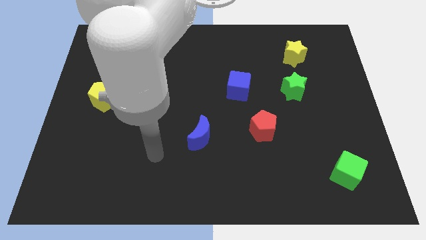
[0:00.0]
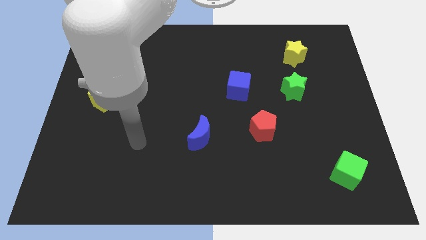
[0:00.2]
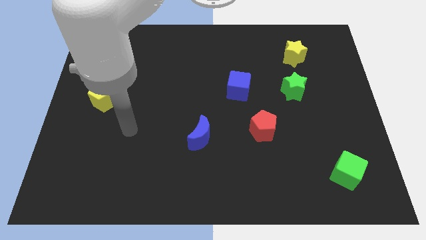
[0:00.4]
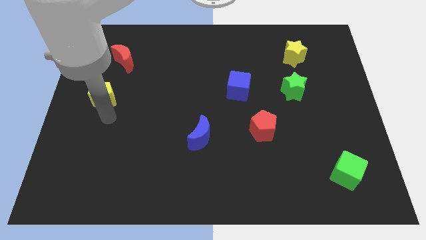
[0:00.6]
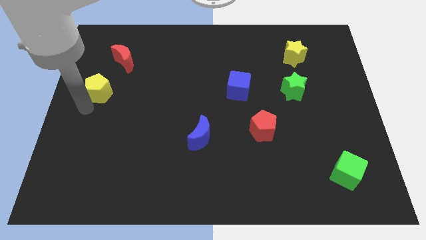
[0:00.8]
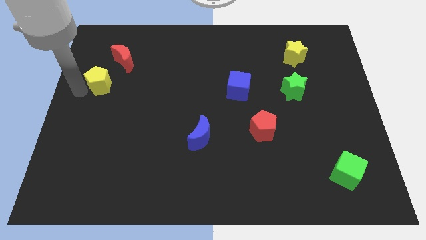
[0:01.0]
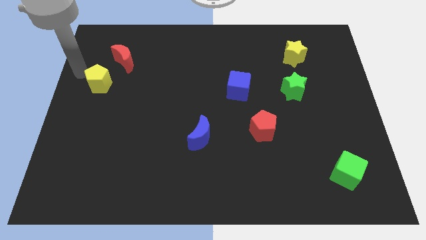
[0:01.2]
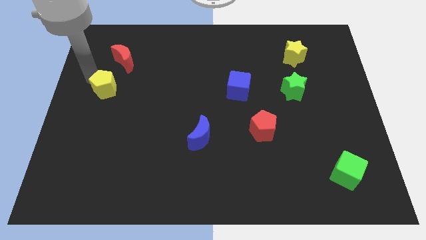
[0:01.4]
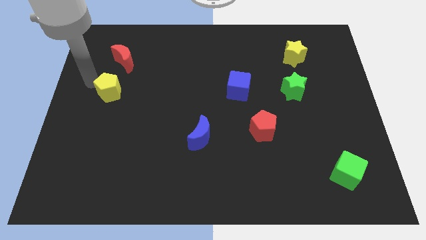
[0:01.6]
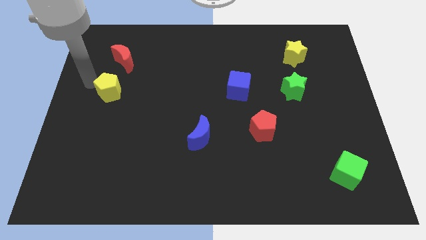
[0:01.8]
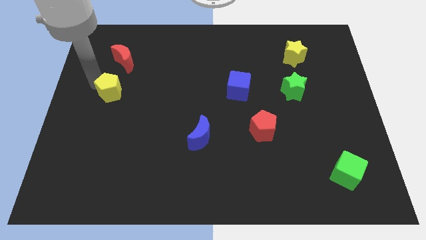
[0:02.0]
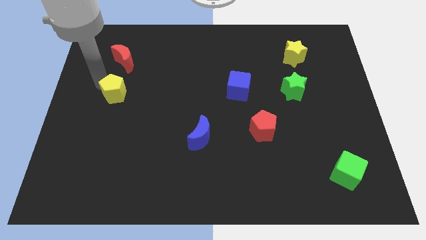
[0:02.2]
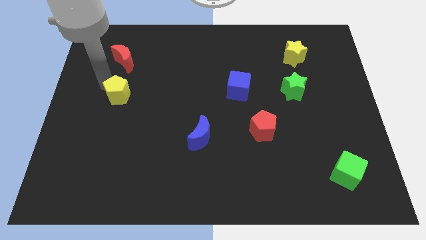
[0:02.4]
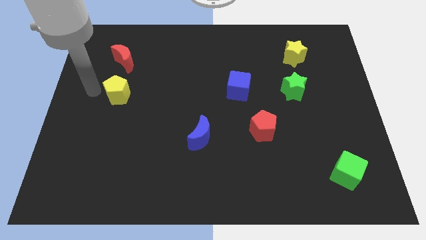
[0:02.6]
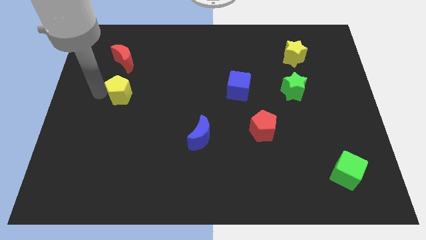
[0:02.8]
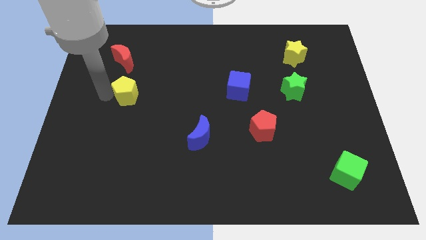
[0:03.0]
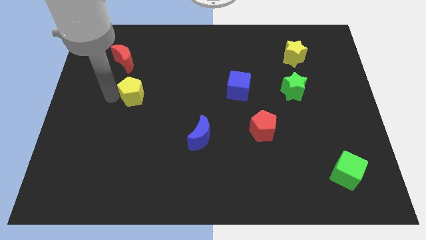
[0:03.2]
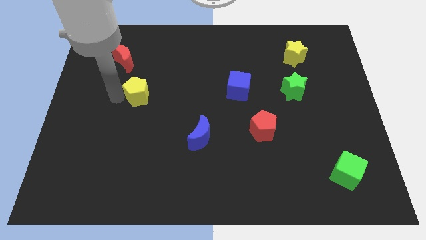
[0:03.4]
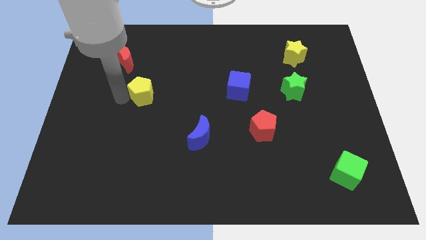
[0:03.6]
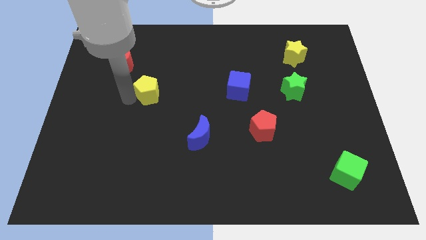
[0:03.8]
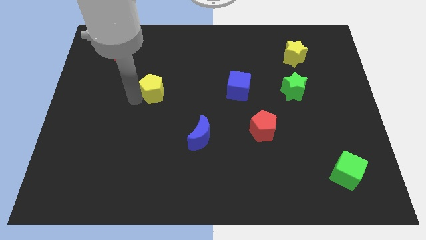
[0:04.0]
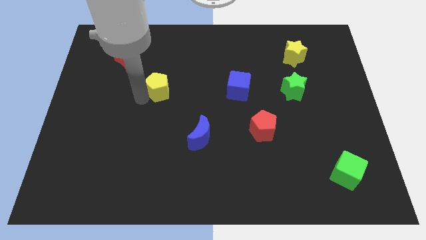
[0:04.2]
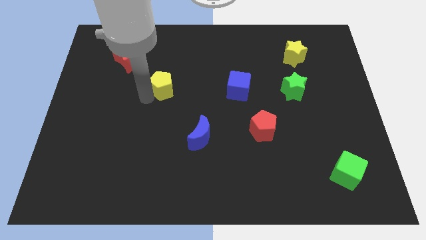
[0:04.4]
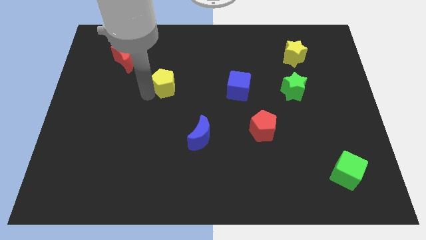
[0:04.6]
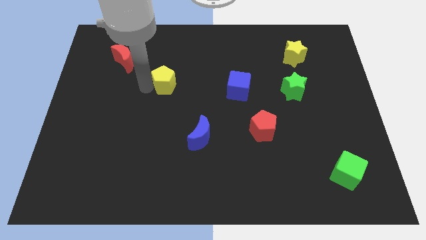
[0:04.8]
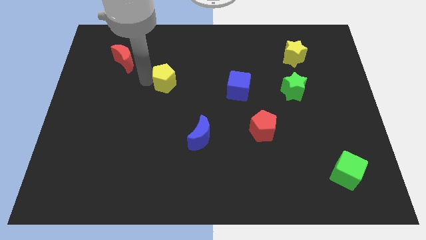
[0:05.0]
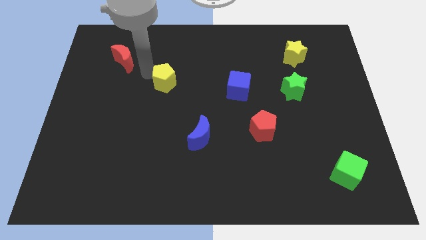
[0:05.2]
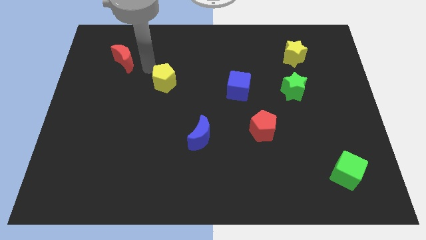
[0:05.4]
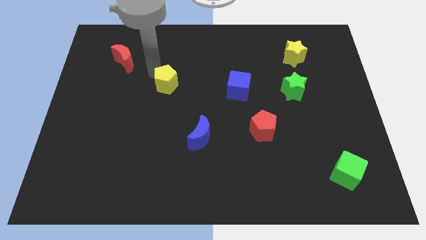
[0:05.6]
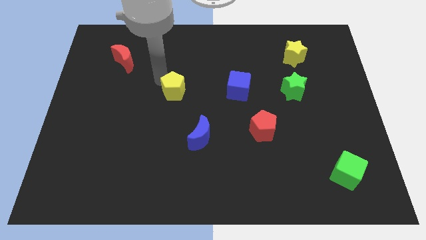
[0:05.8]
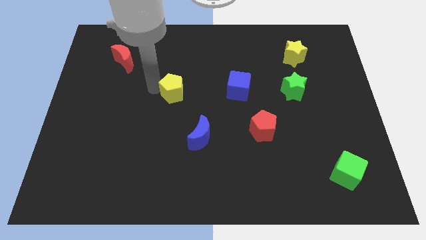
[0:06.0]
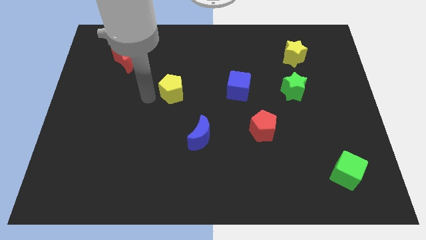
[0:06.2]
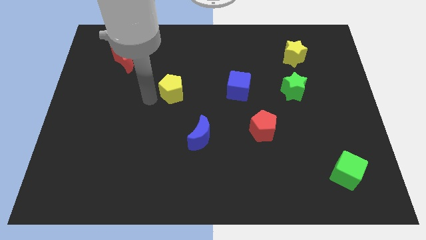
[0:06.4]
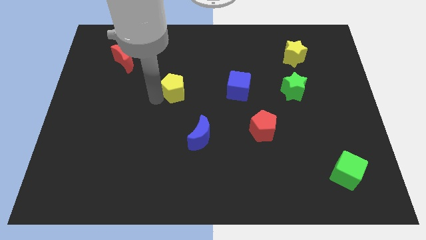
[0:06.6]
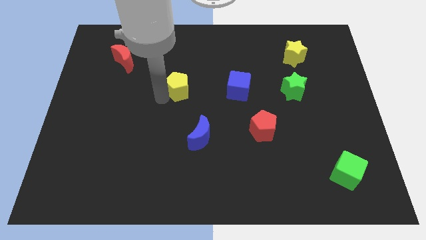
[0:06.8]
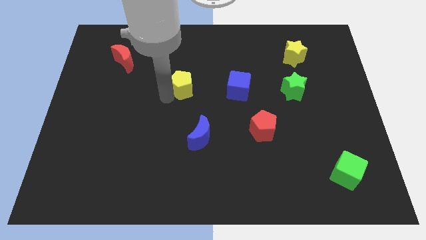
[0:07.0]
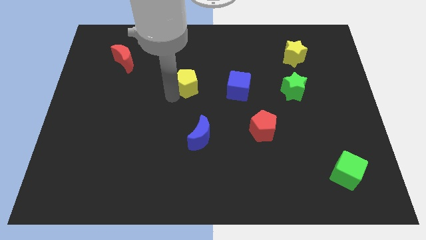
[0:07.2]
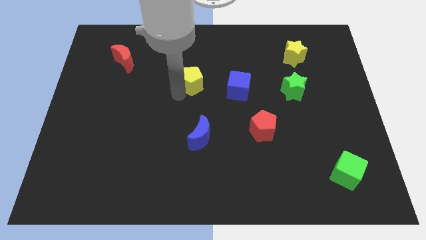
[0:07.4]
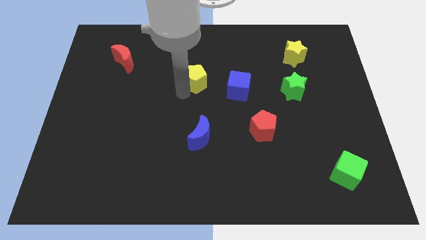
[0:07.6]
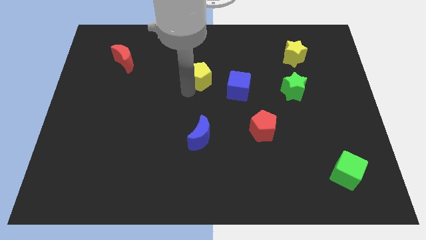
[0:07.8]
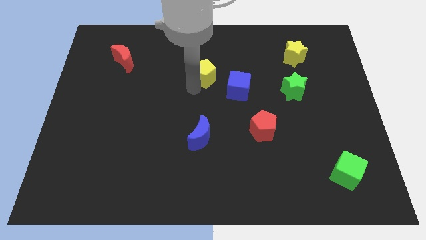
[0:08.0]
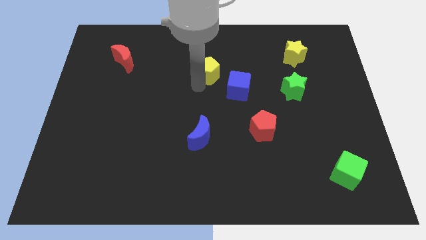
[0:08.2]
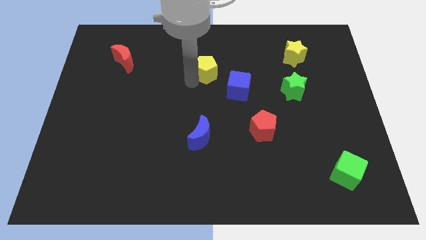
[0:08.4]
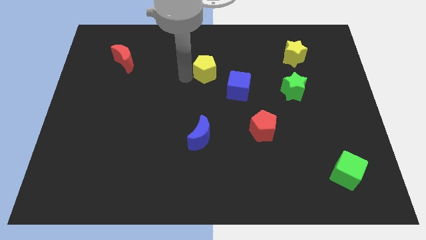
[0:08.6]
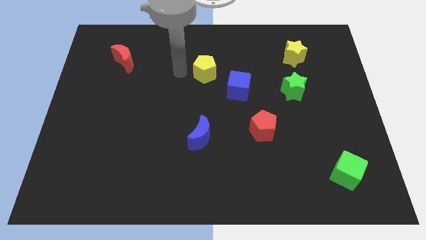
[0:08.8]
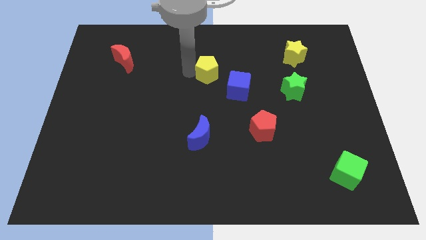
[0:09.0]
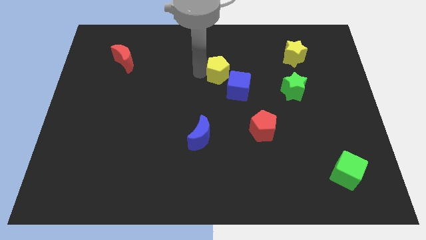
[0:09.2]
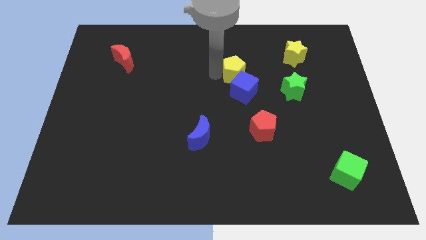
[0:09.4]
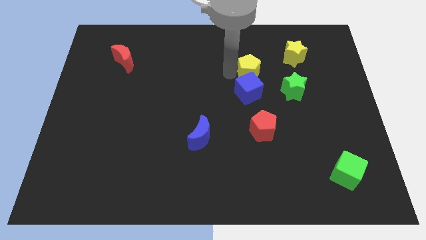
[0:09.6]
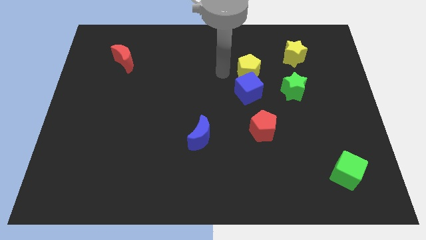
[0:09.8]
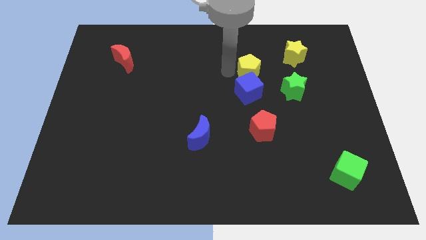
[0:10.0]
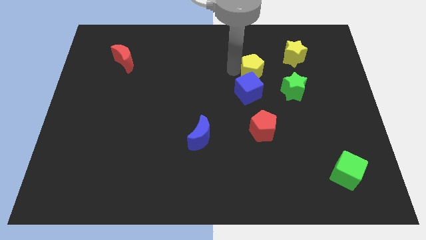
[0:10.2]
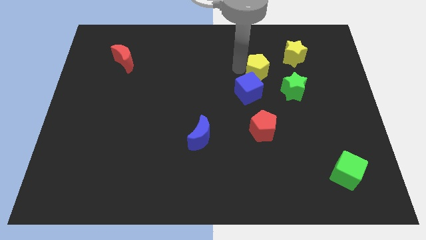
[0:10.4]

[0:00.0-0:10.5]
move the yellow pentagon to the bottom left side of the yellow star

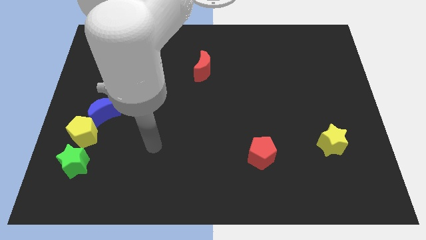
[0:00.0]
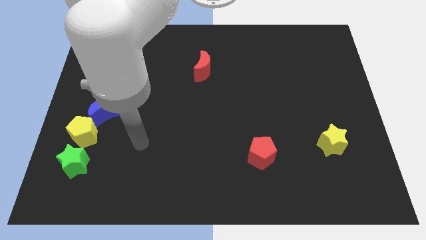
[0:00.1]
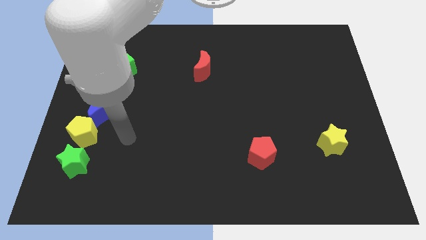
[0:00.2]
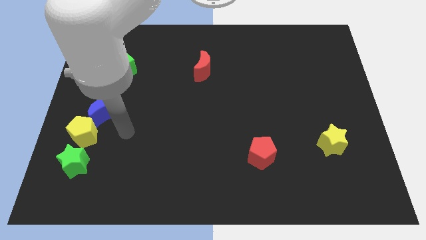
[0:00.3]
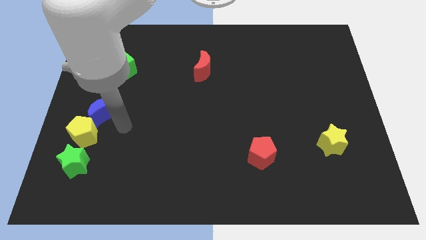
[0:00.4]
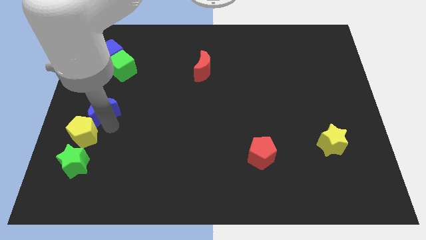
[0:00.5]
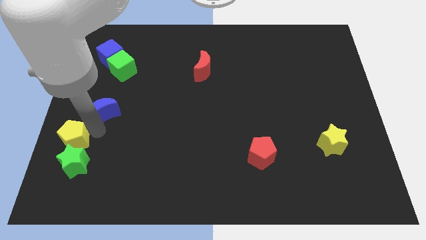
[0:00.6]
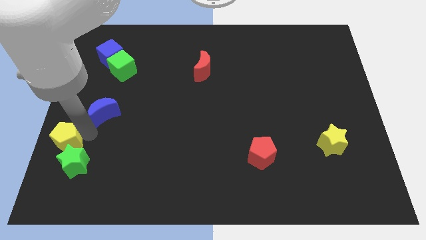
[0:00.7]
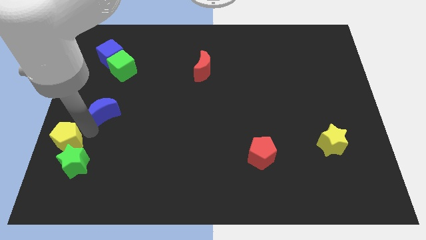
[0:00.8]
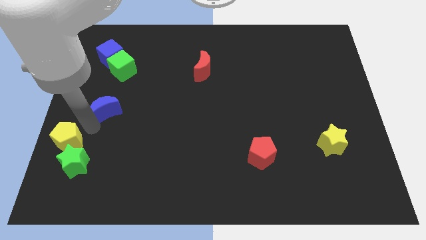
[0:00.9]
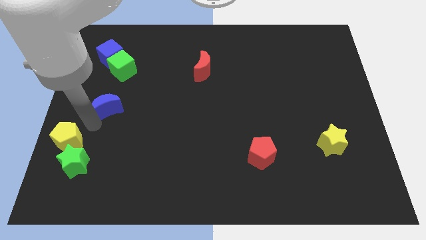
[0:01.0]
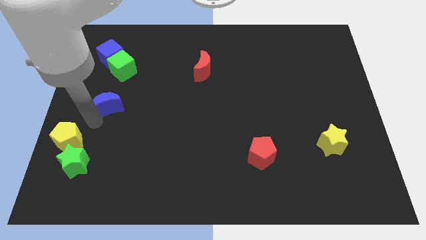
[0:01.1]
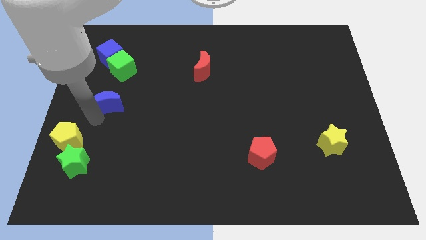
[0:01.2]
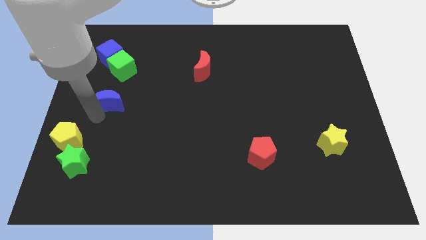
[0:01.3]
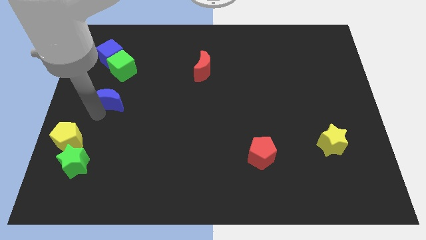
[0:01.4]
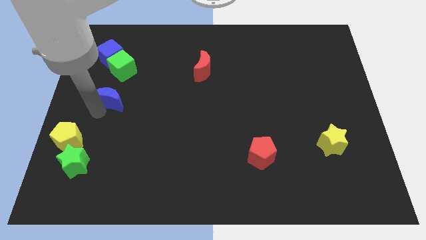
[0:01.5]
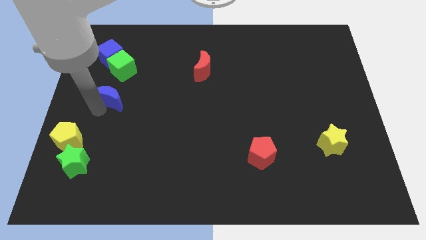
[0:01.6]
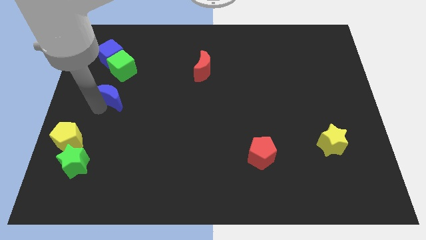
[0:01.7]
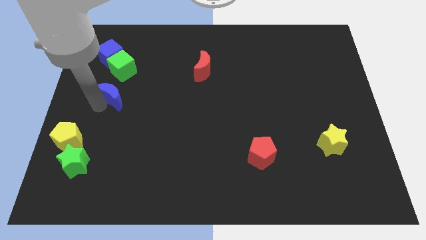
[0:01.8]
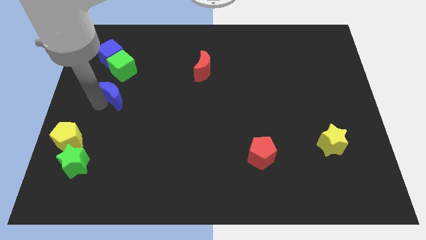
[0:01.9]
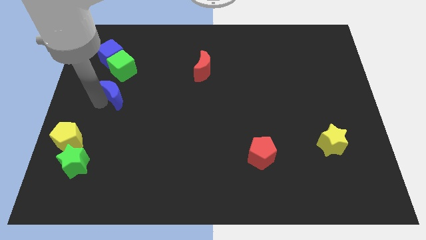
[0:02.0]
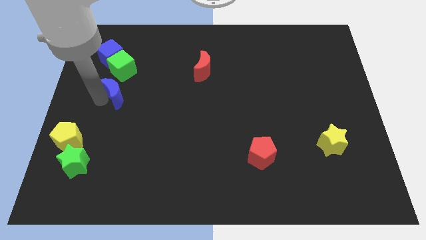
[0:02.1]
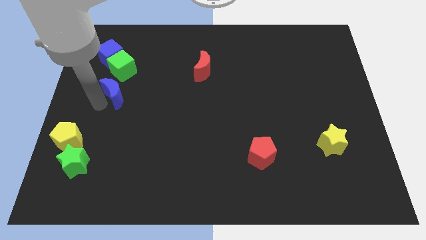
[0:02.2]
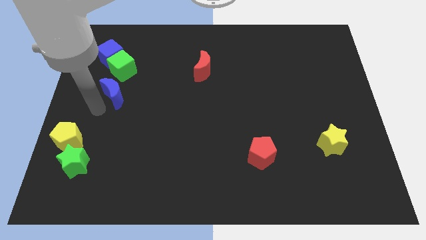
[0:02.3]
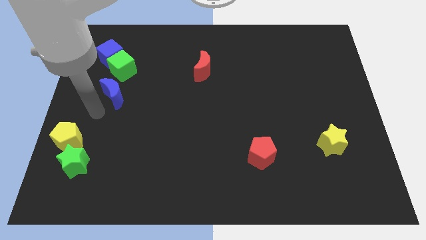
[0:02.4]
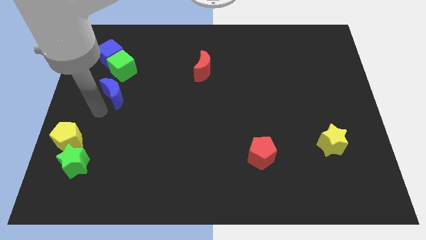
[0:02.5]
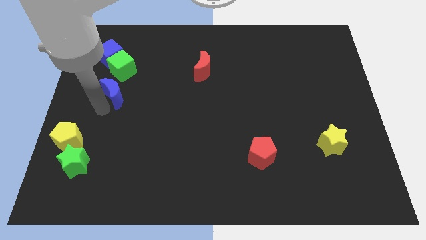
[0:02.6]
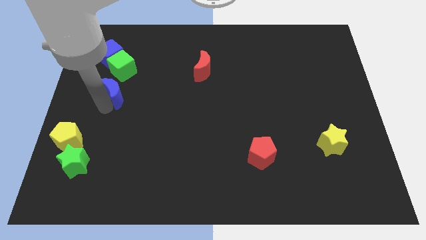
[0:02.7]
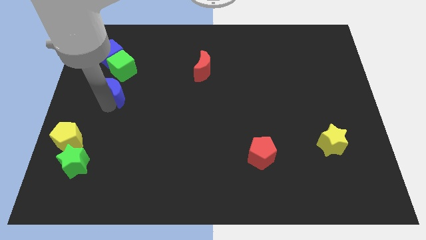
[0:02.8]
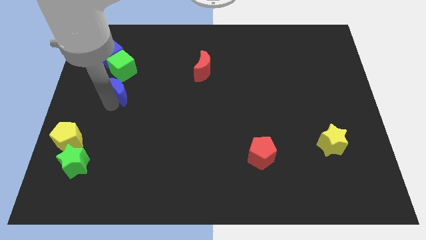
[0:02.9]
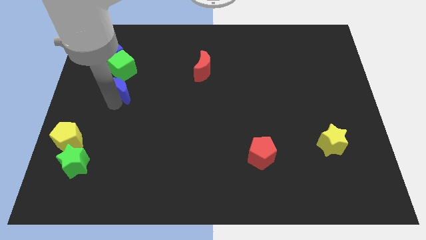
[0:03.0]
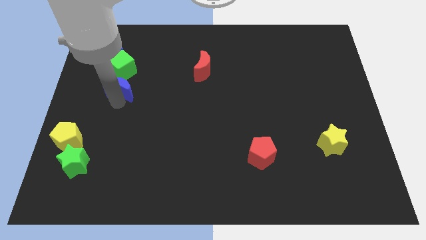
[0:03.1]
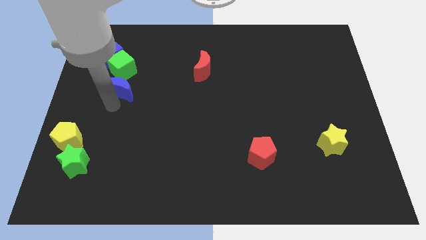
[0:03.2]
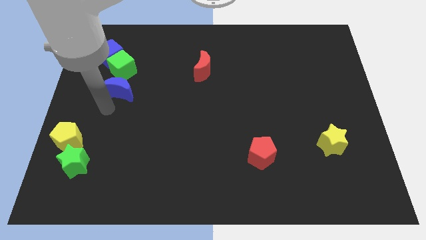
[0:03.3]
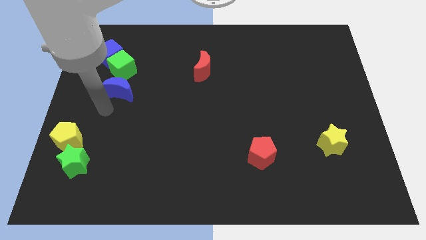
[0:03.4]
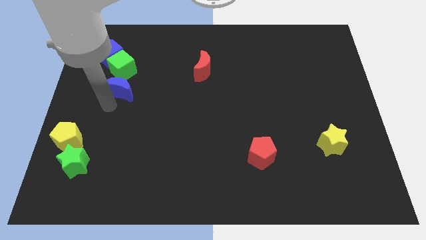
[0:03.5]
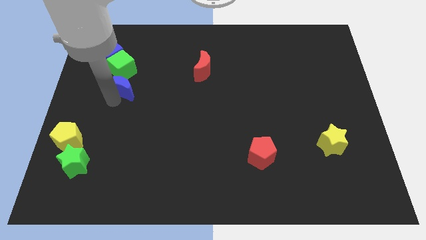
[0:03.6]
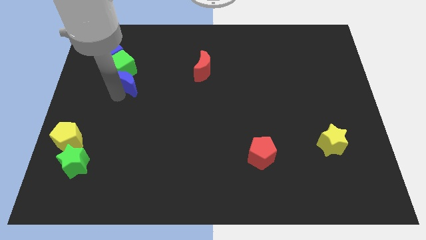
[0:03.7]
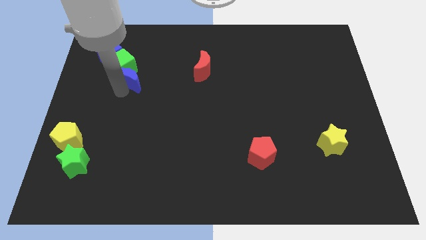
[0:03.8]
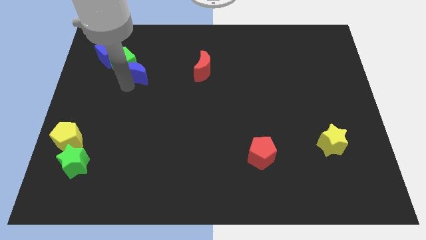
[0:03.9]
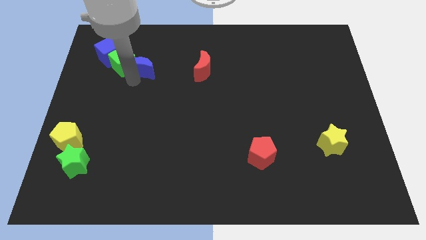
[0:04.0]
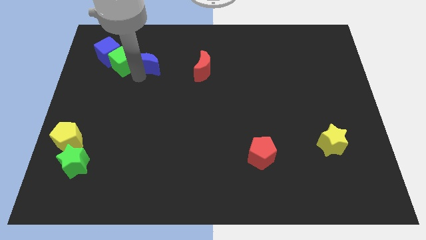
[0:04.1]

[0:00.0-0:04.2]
slide the blue moon to the top right side of the green cube
